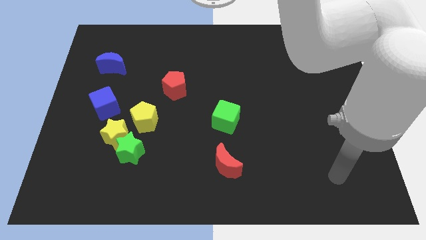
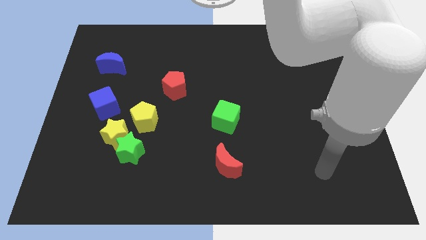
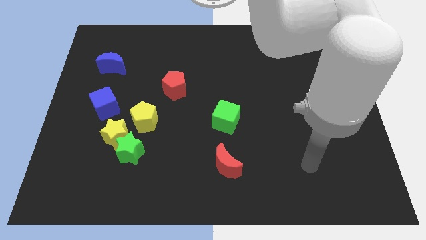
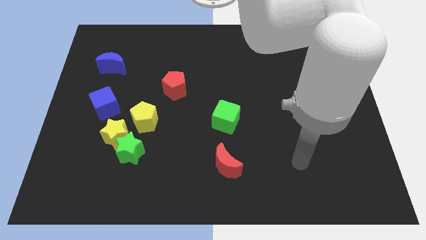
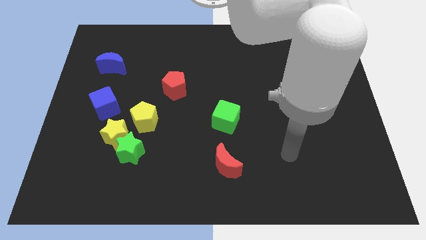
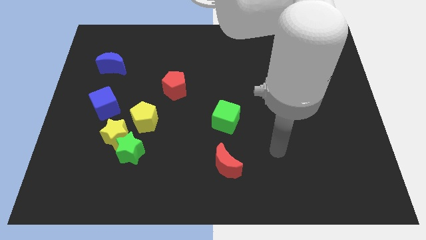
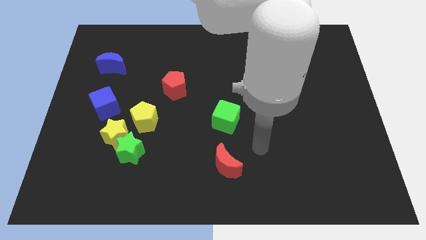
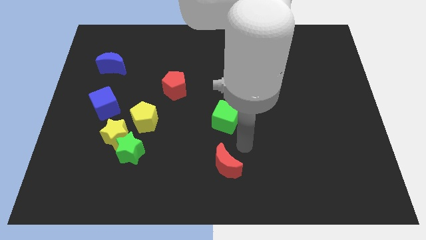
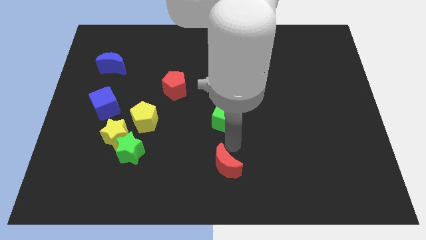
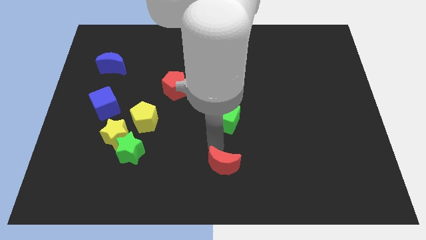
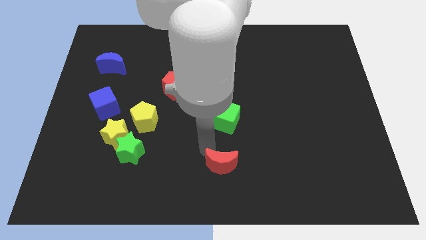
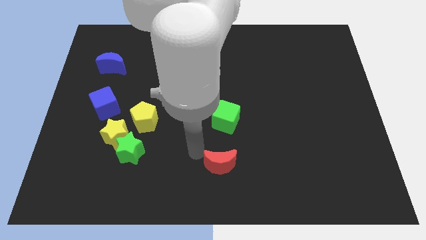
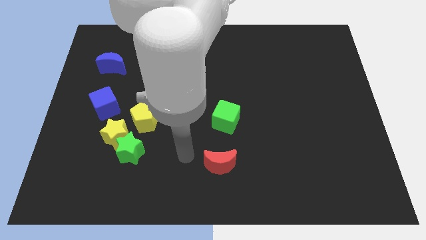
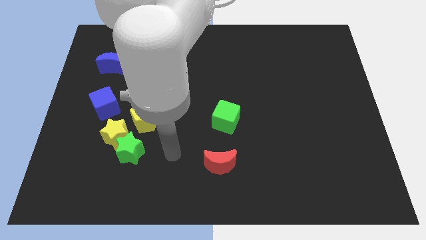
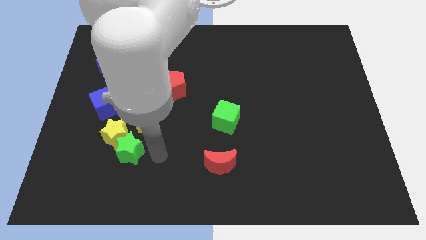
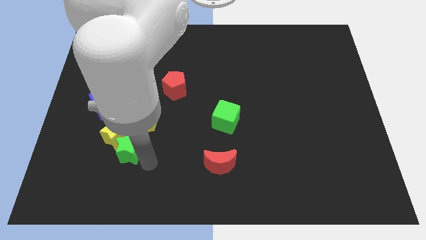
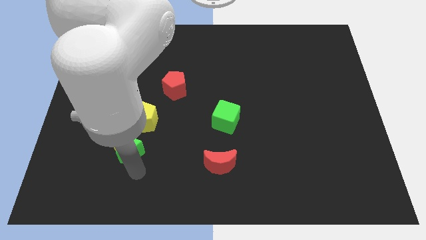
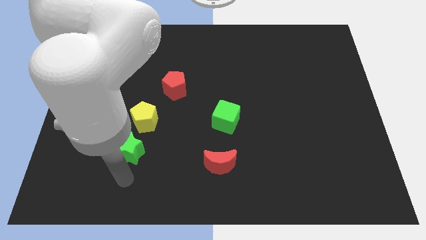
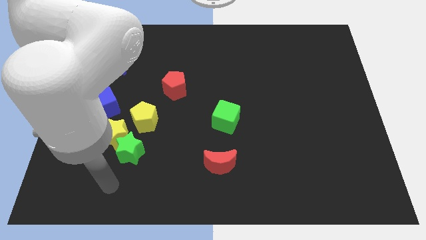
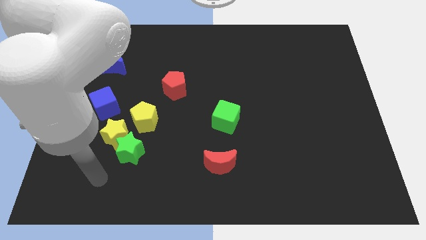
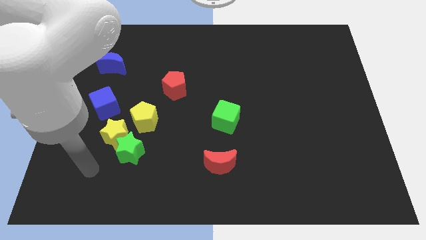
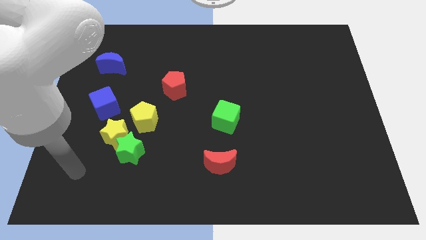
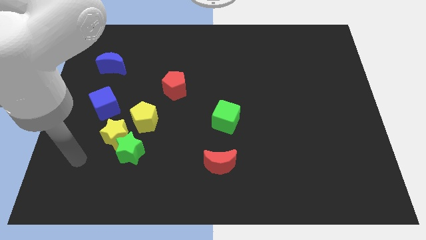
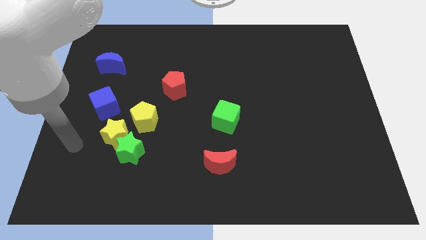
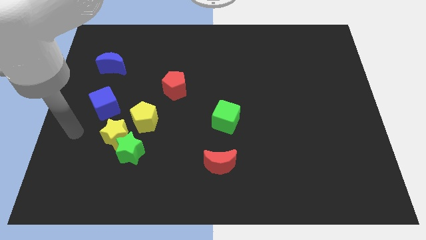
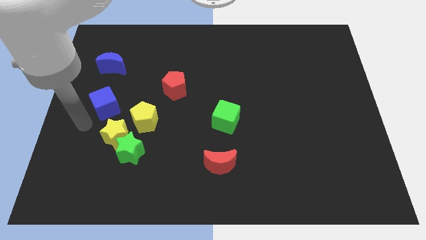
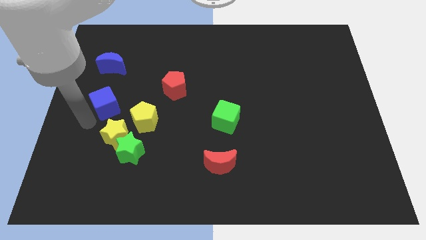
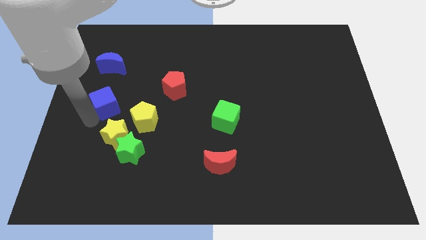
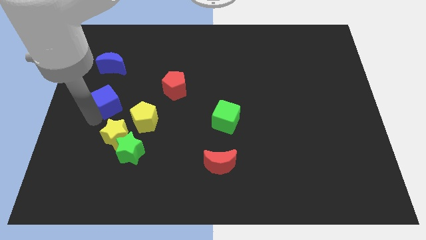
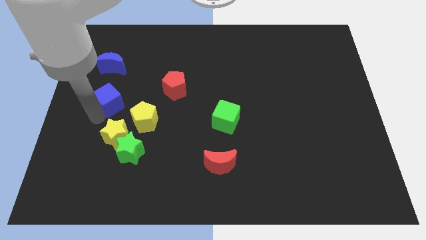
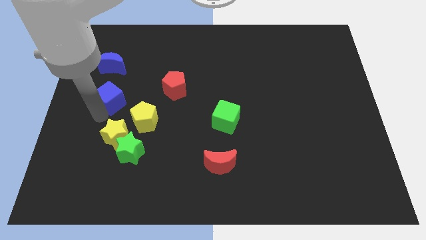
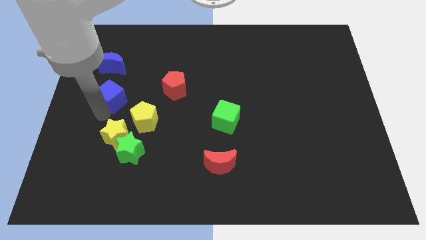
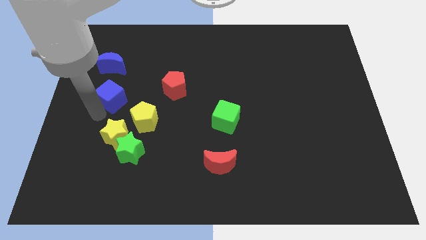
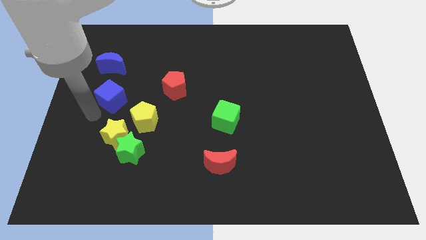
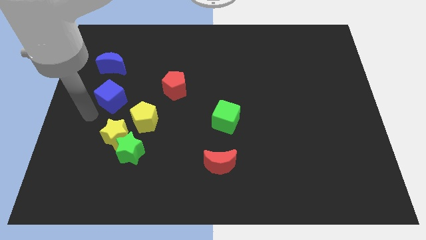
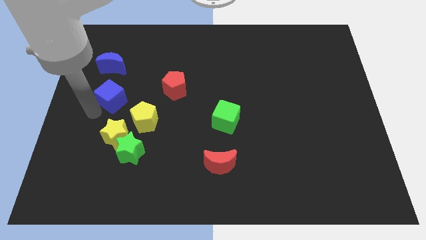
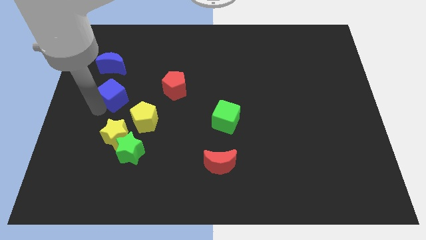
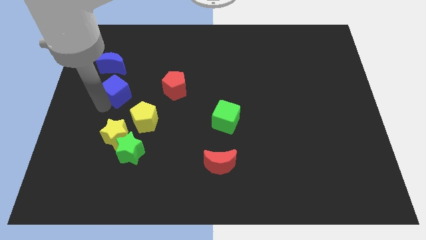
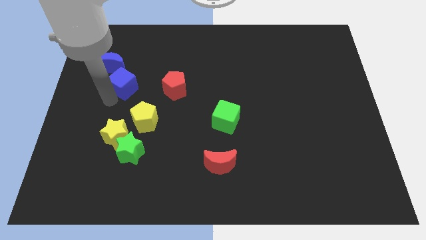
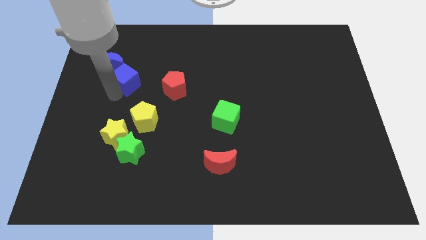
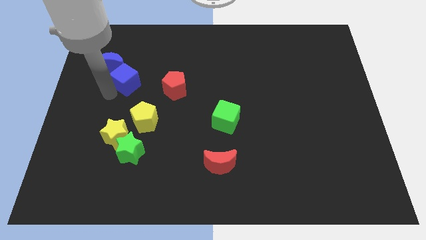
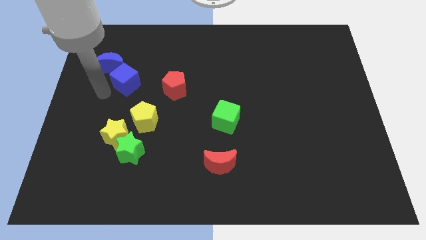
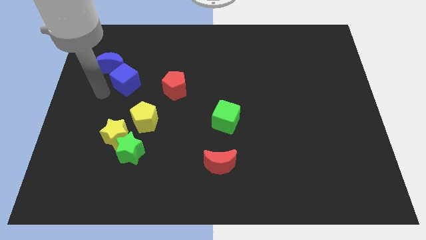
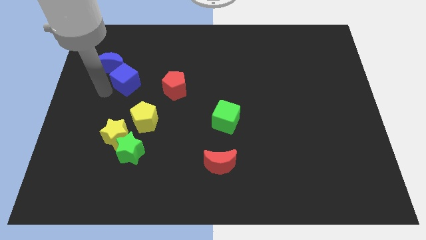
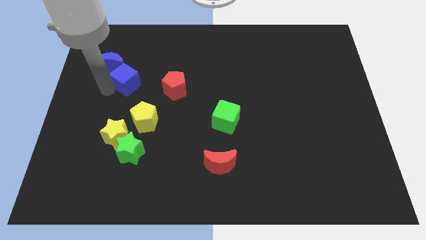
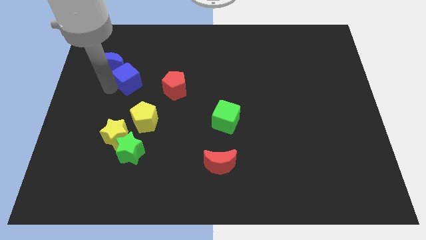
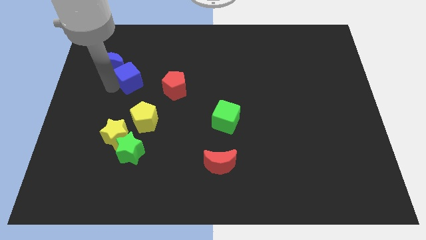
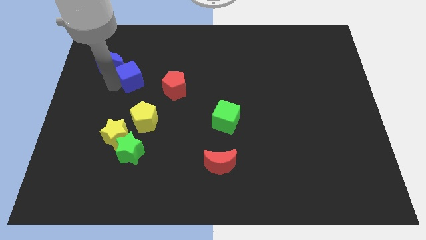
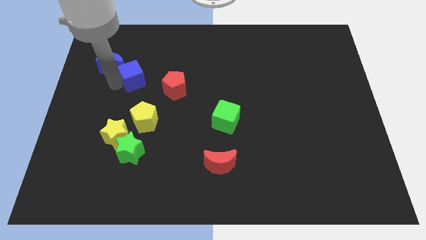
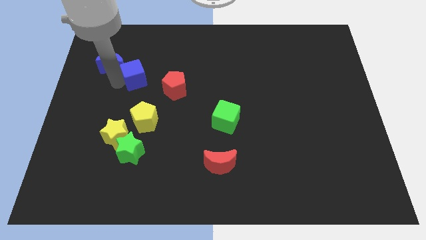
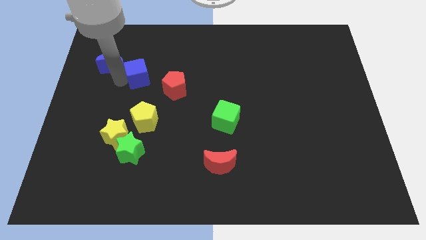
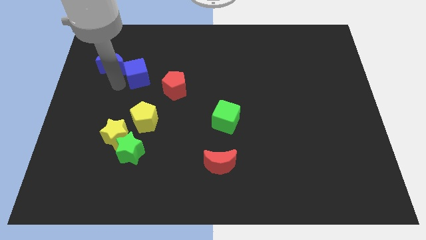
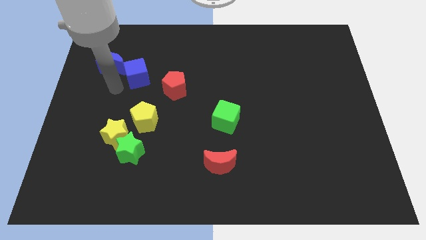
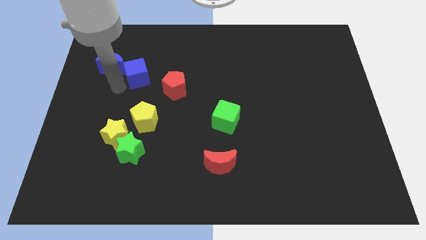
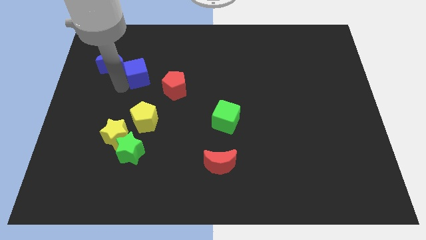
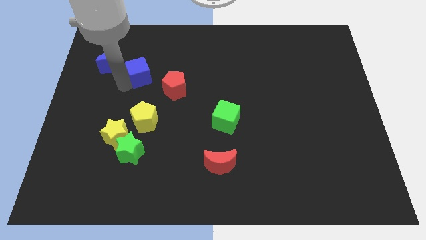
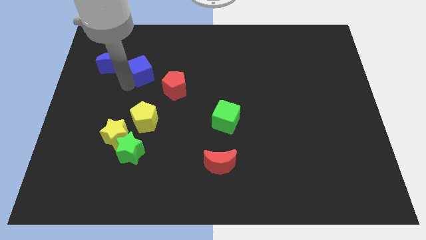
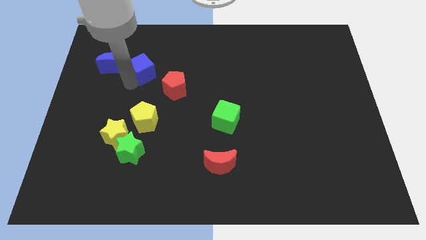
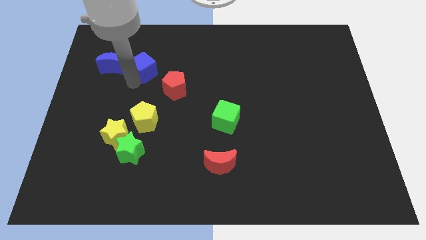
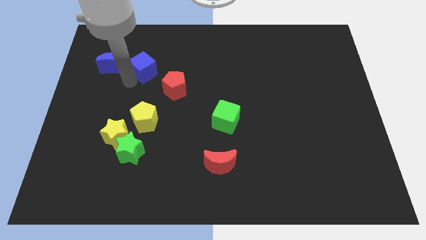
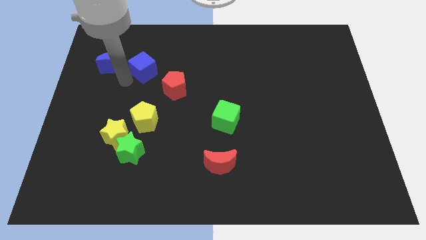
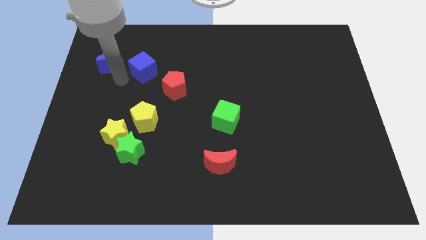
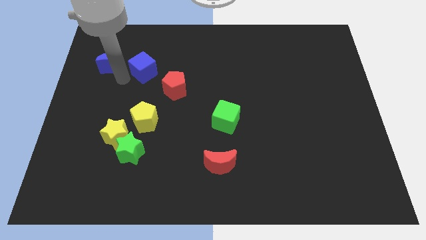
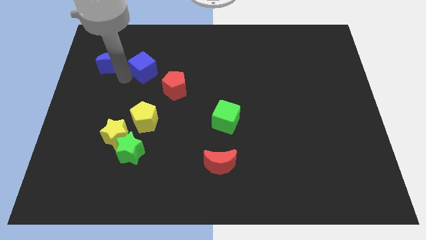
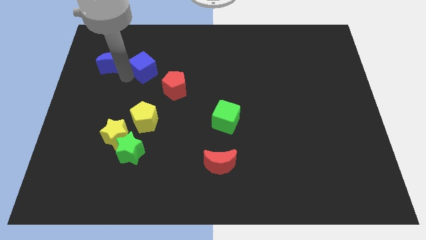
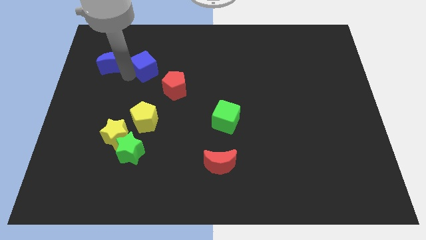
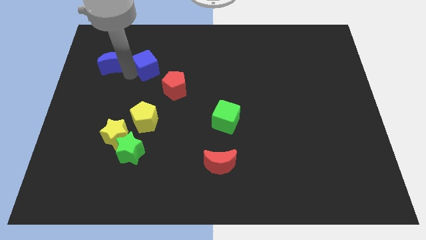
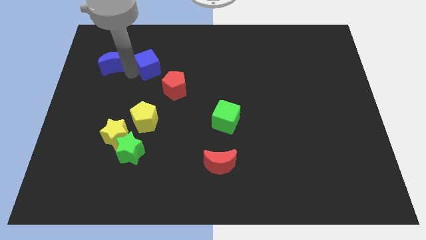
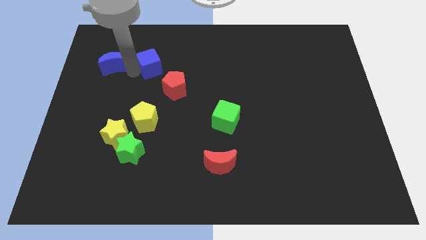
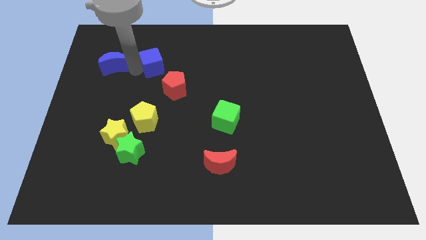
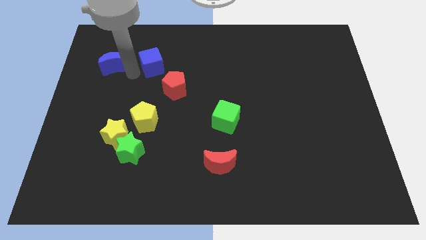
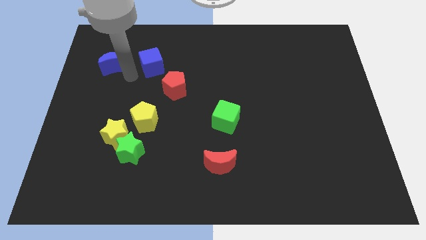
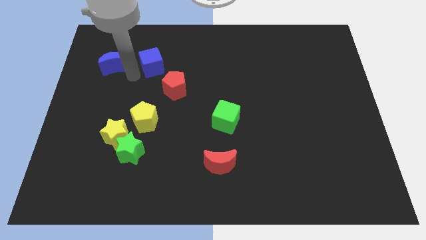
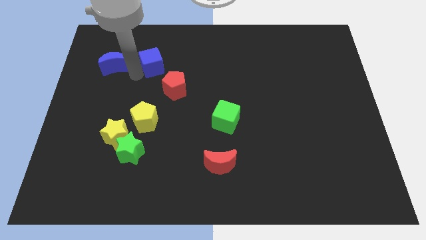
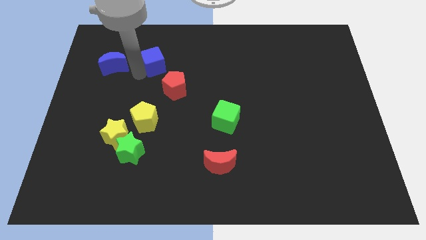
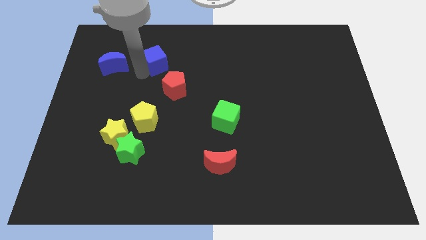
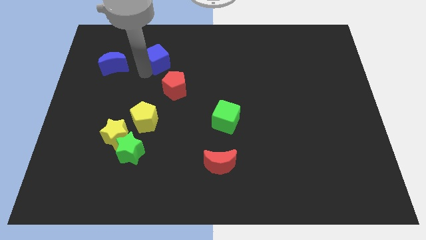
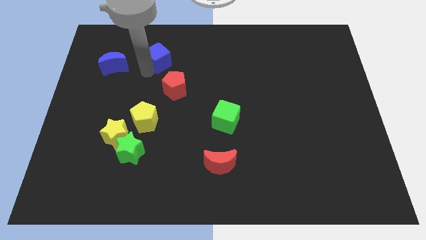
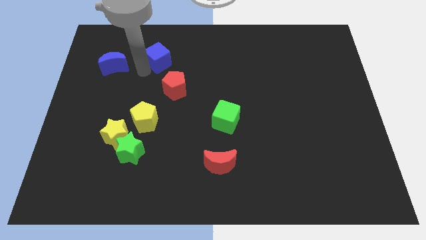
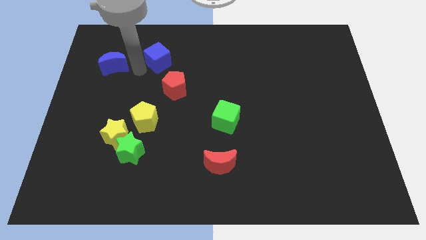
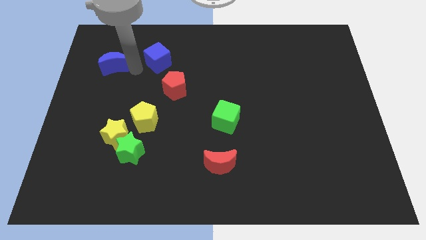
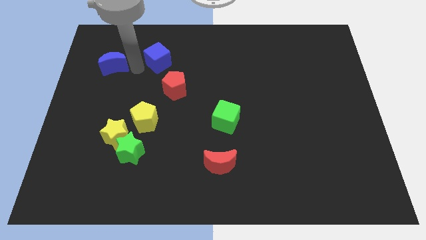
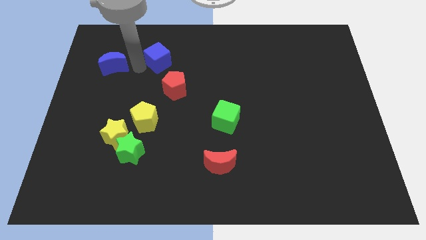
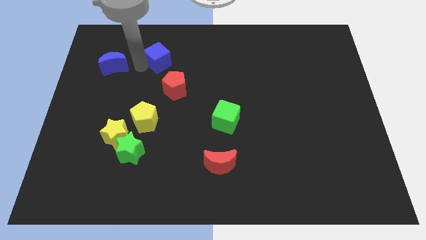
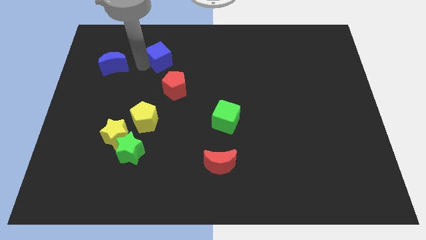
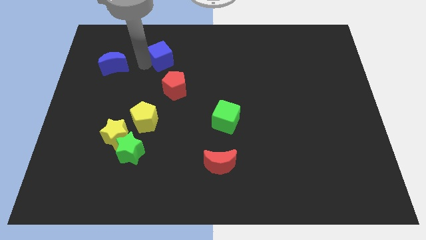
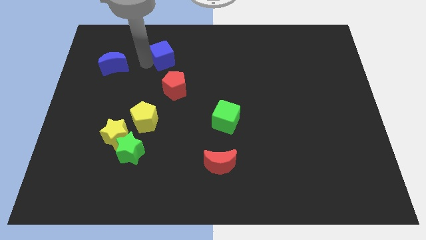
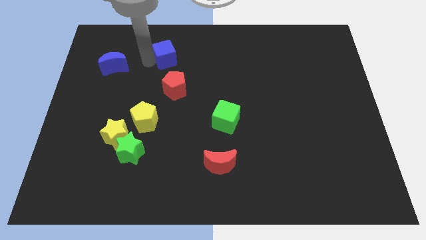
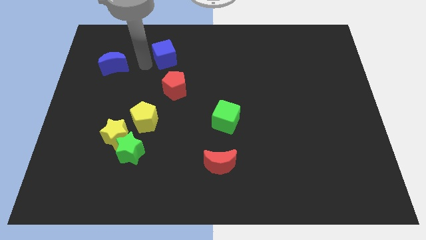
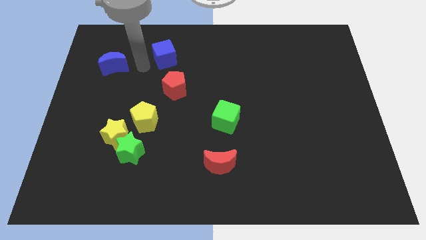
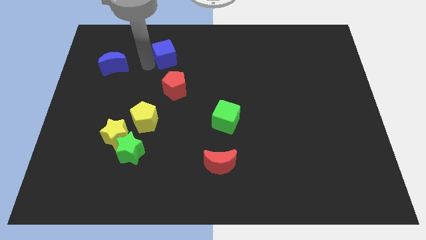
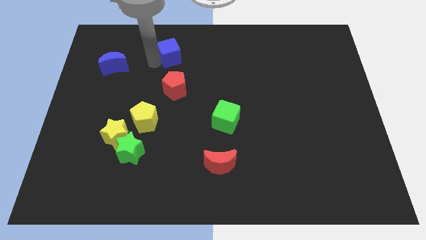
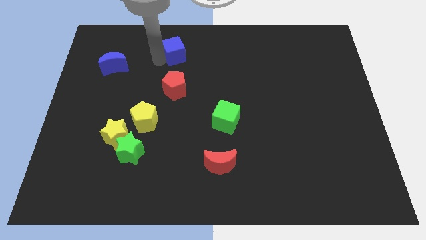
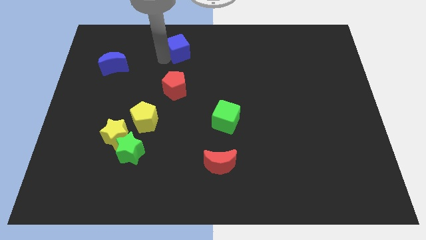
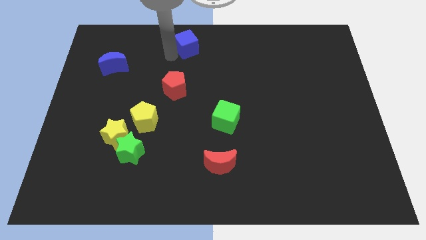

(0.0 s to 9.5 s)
move the blue cube to the top side
